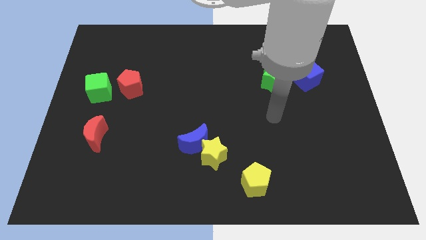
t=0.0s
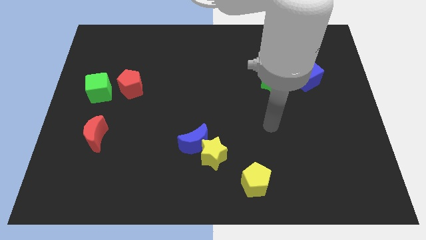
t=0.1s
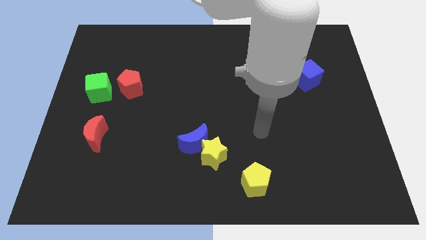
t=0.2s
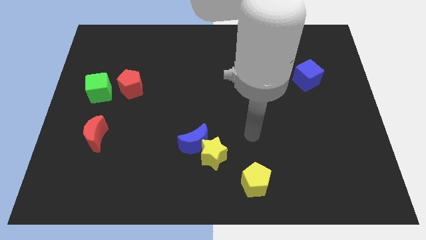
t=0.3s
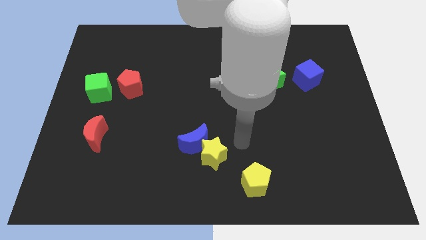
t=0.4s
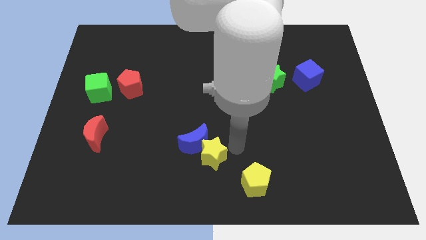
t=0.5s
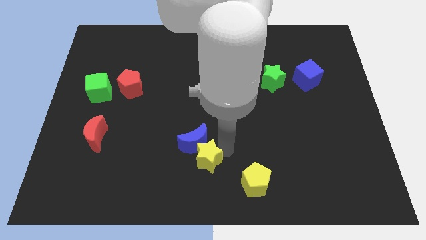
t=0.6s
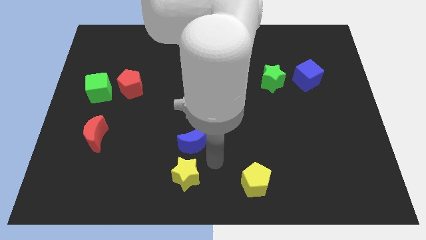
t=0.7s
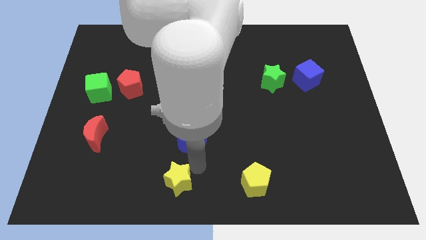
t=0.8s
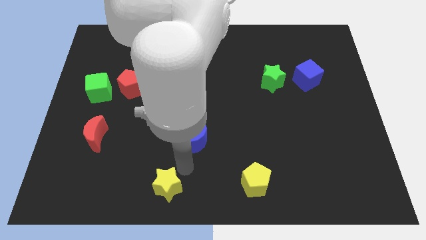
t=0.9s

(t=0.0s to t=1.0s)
pull the blue moon apart from the yellow star

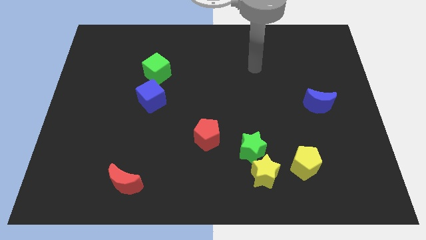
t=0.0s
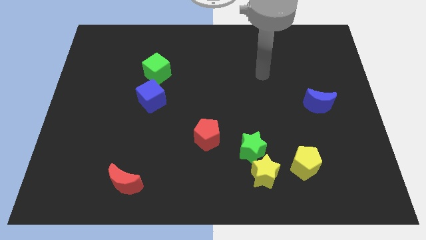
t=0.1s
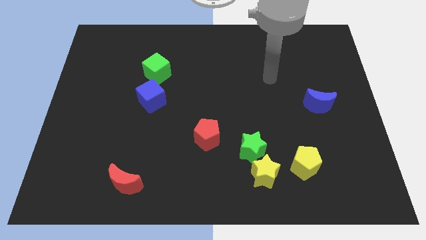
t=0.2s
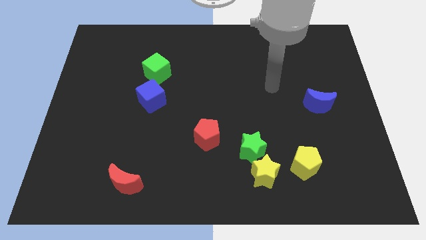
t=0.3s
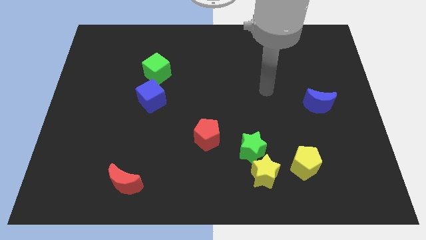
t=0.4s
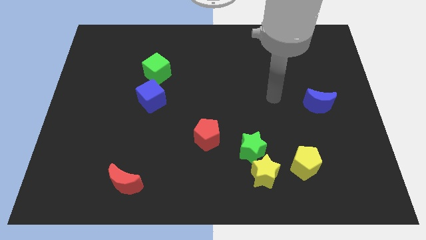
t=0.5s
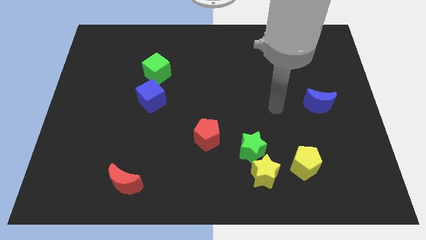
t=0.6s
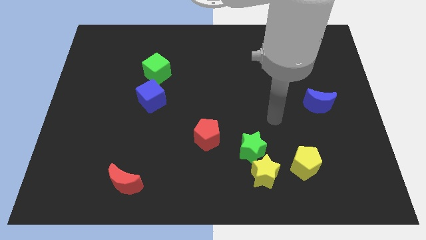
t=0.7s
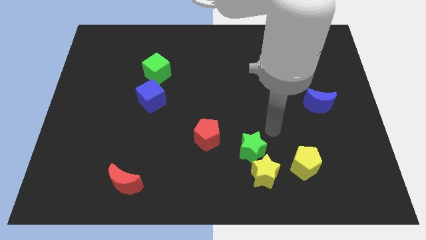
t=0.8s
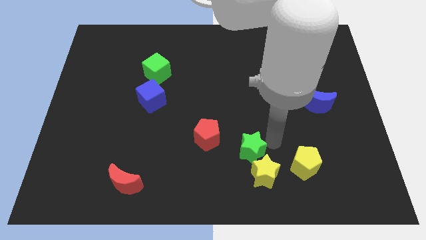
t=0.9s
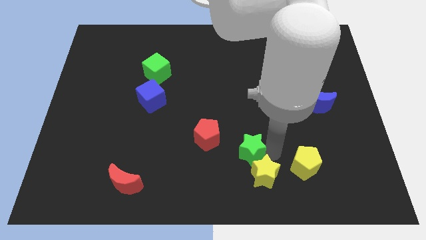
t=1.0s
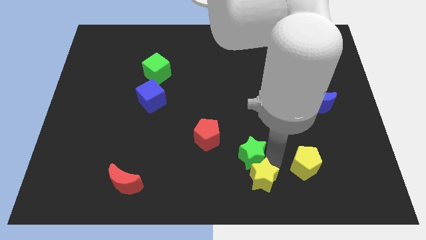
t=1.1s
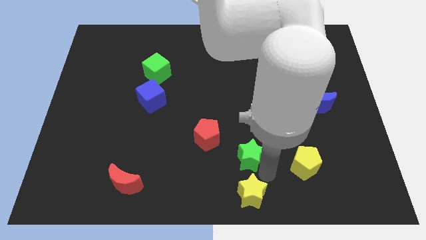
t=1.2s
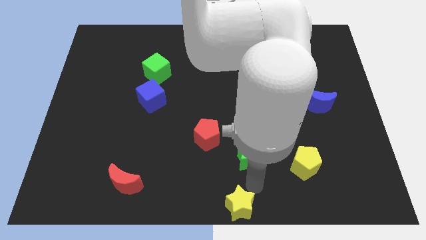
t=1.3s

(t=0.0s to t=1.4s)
separate the green star from the yellow star

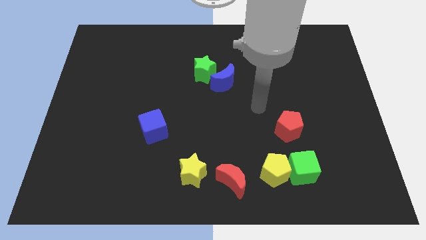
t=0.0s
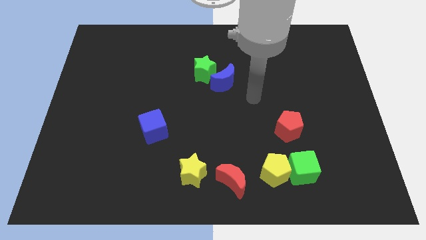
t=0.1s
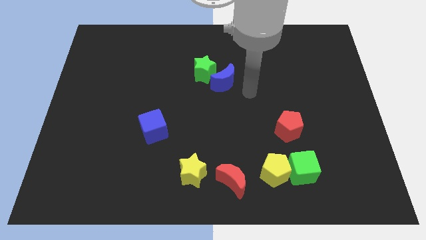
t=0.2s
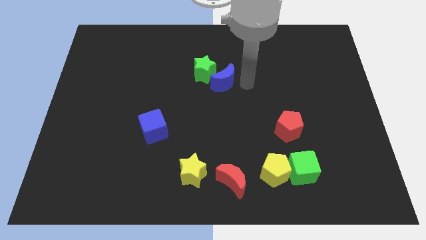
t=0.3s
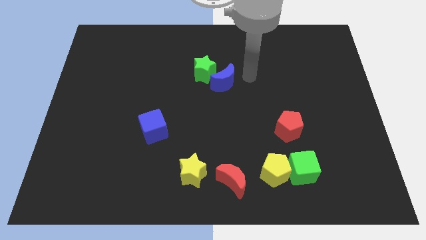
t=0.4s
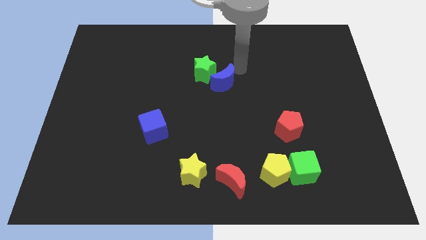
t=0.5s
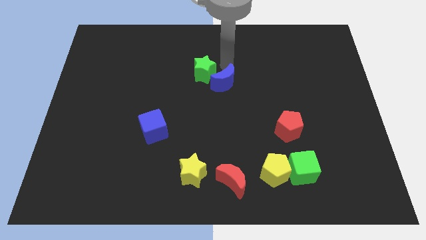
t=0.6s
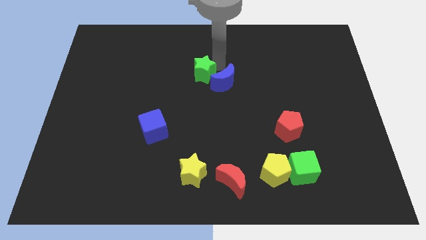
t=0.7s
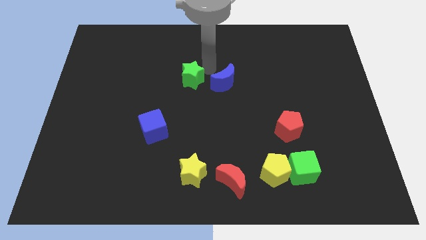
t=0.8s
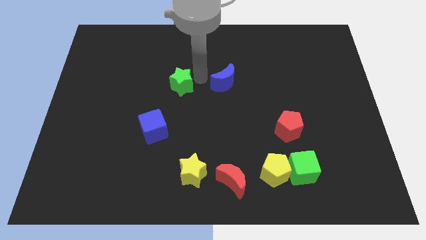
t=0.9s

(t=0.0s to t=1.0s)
move the blue moon away from the green star

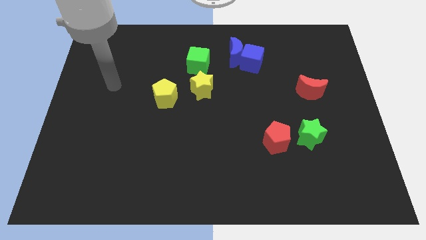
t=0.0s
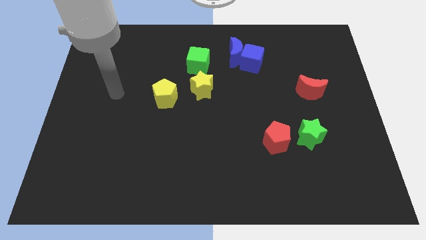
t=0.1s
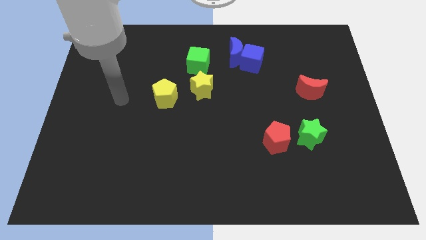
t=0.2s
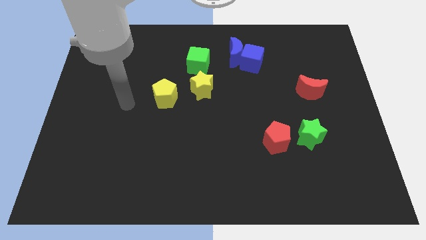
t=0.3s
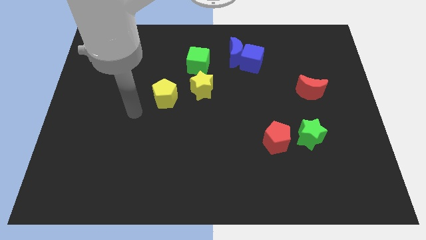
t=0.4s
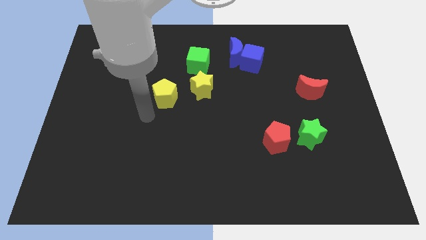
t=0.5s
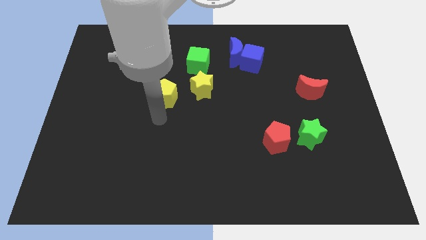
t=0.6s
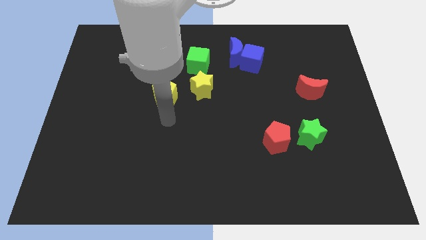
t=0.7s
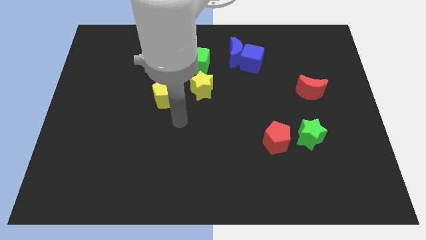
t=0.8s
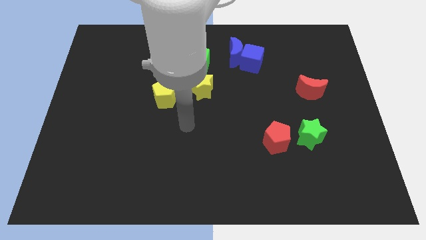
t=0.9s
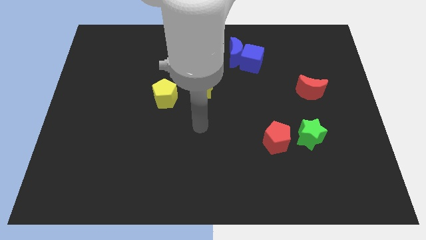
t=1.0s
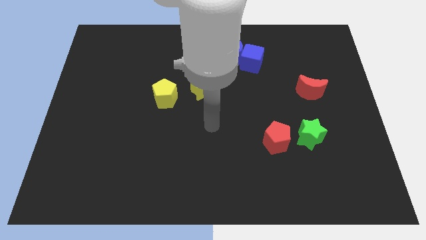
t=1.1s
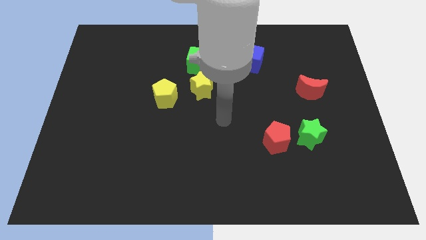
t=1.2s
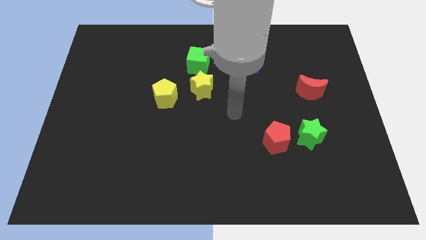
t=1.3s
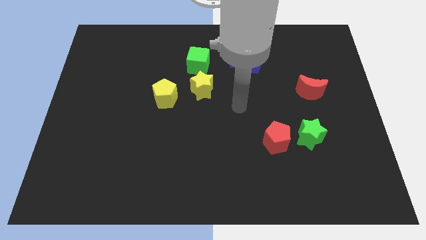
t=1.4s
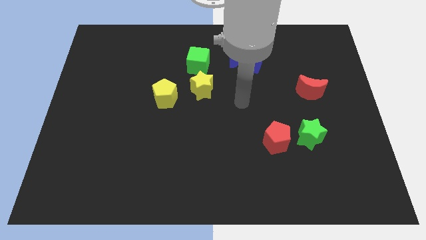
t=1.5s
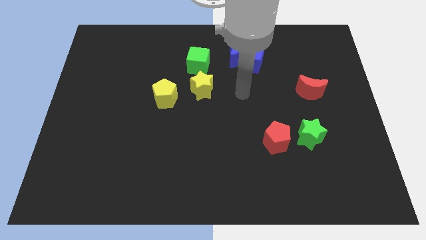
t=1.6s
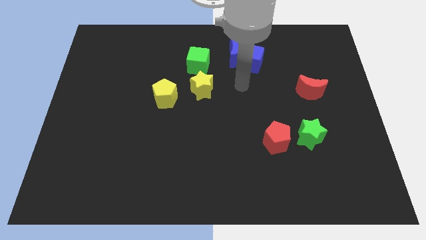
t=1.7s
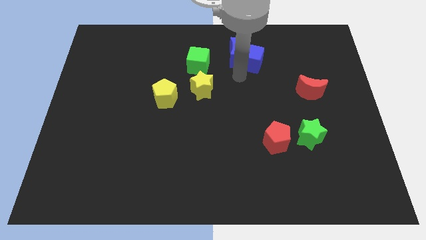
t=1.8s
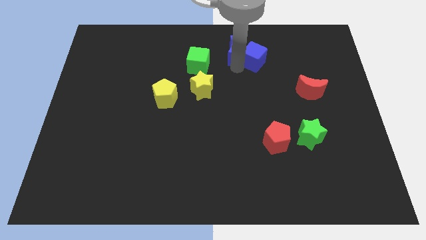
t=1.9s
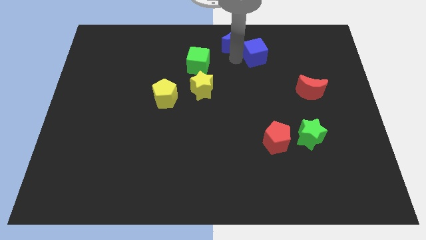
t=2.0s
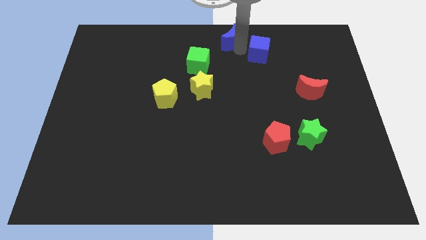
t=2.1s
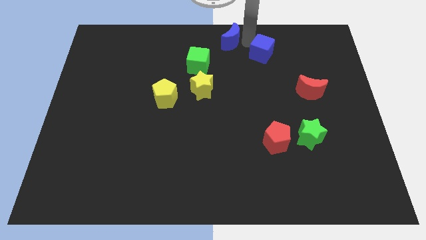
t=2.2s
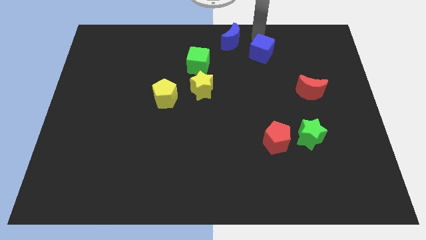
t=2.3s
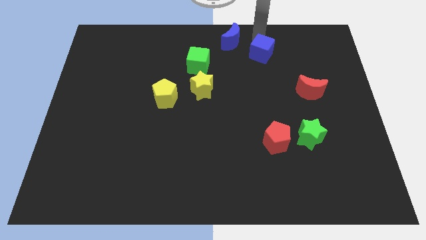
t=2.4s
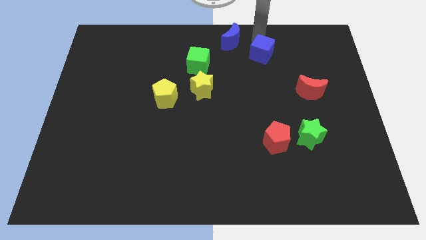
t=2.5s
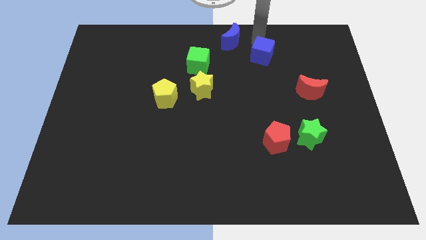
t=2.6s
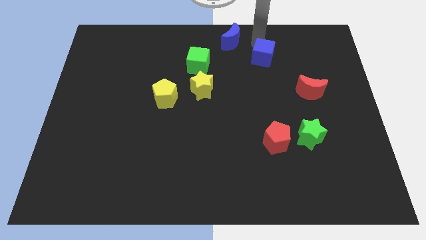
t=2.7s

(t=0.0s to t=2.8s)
pull the blue cube apart from the blue moon

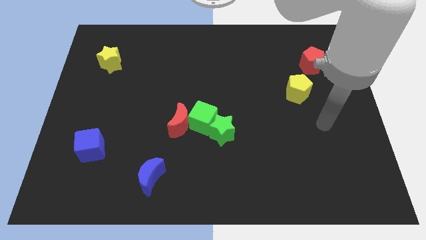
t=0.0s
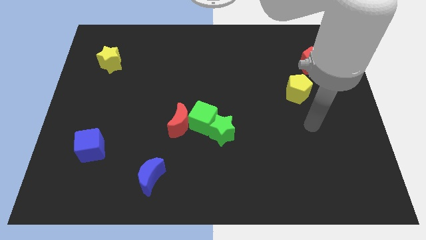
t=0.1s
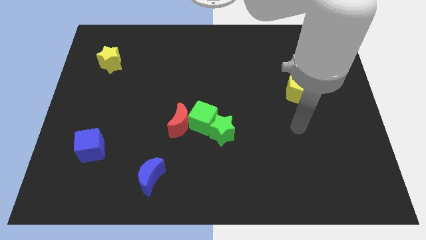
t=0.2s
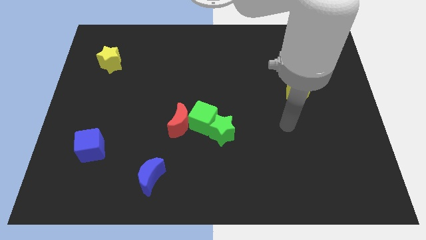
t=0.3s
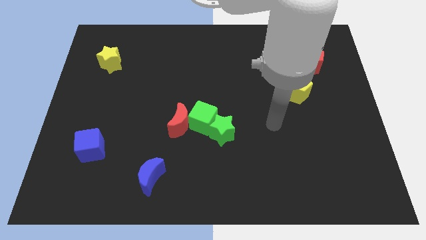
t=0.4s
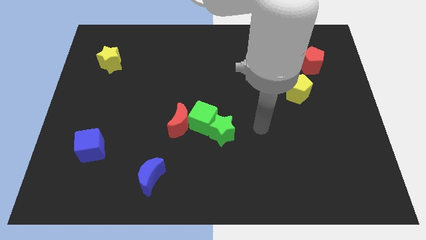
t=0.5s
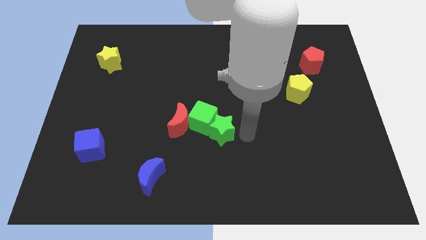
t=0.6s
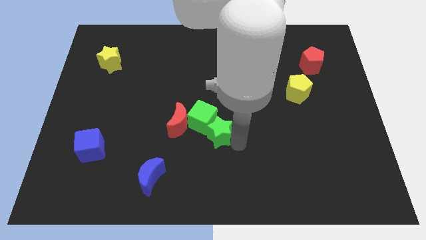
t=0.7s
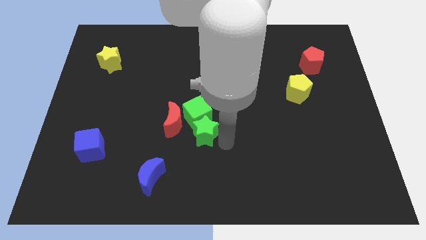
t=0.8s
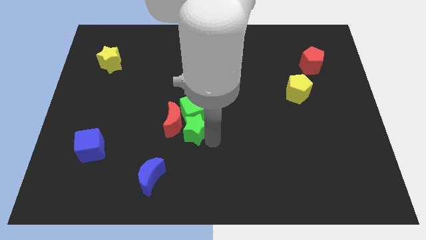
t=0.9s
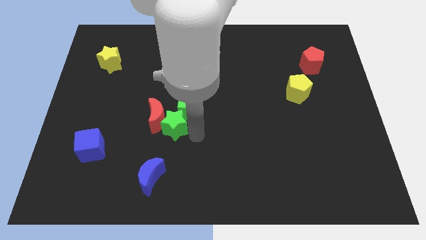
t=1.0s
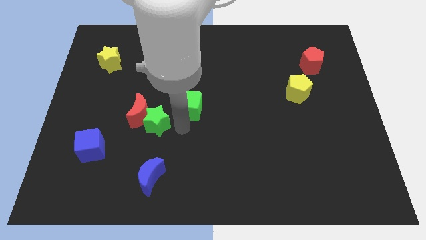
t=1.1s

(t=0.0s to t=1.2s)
pull the green cube apart from the red moon and green star

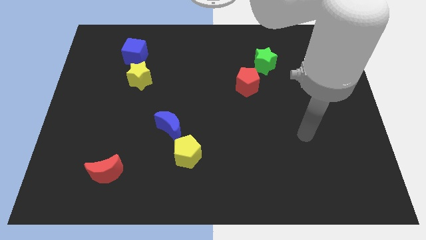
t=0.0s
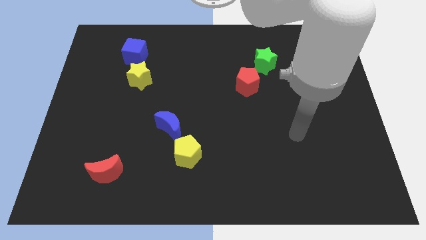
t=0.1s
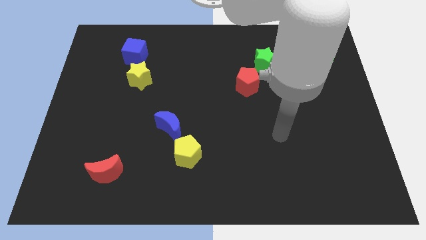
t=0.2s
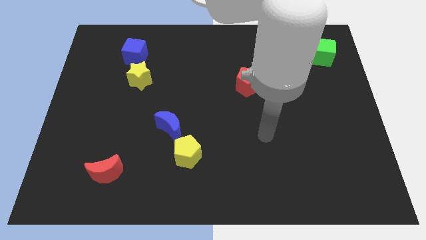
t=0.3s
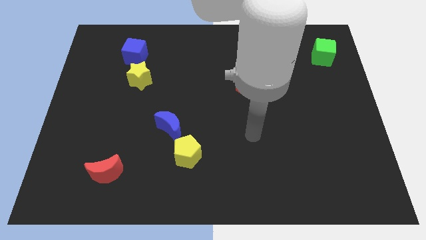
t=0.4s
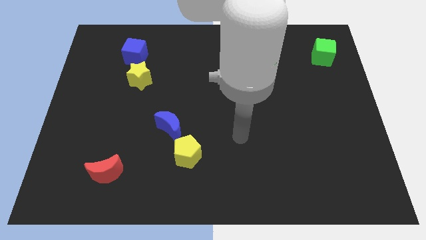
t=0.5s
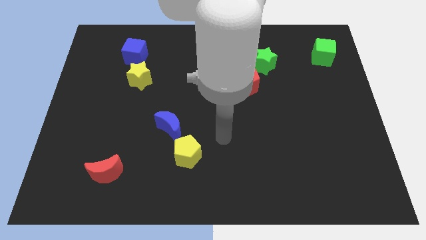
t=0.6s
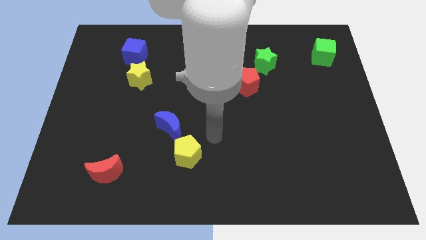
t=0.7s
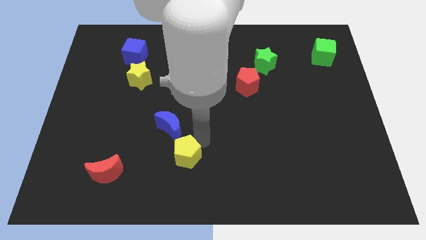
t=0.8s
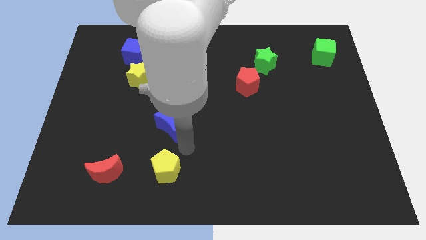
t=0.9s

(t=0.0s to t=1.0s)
pull the blue moon apart from the yellow pentagon

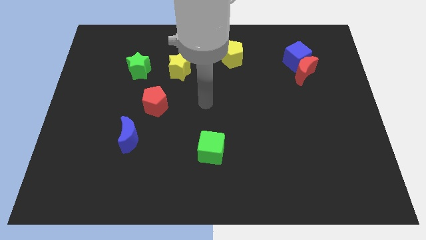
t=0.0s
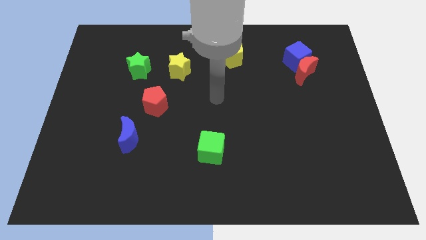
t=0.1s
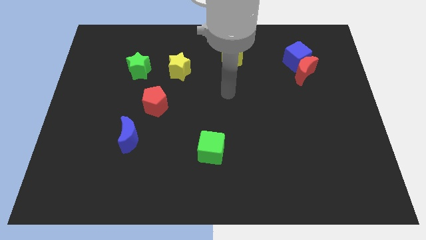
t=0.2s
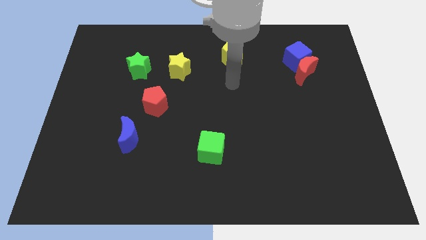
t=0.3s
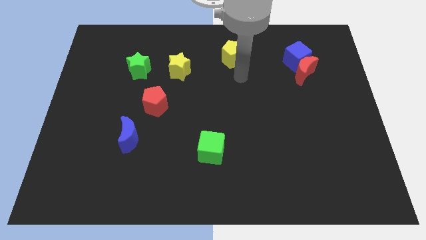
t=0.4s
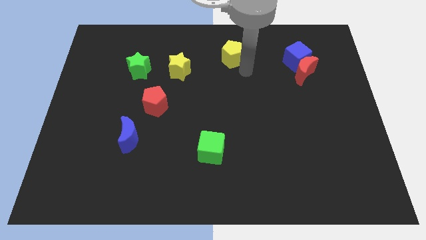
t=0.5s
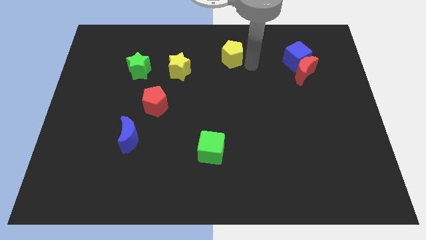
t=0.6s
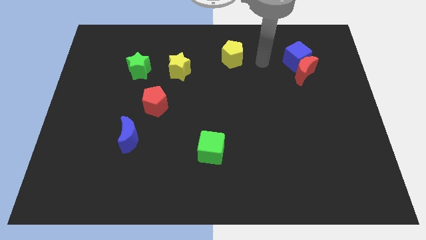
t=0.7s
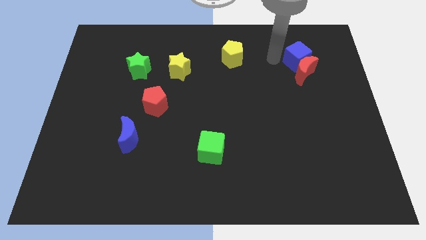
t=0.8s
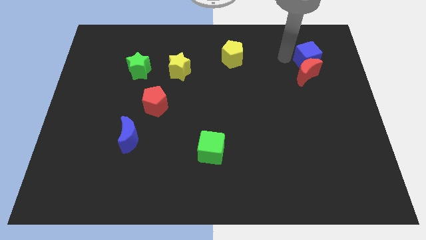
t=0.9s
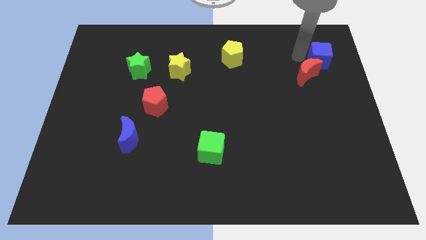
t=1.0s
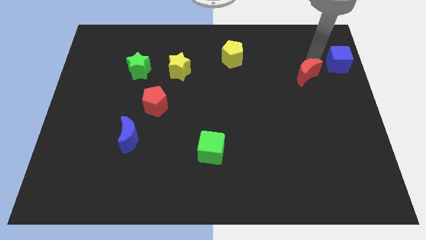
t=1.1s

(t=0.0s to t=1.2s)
separate the red moon from the blue cube
